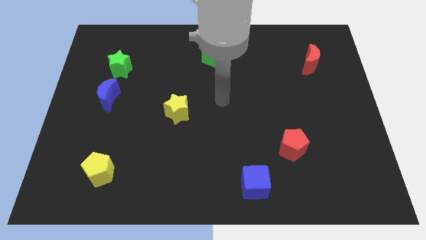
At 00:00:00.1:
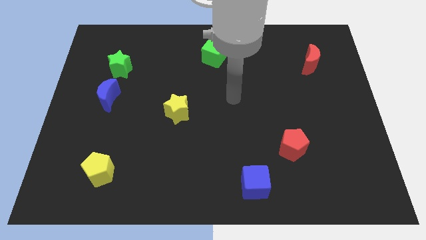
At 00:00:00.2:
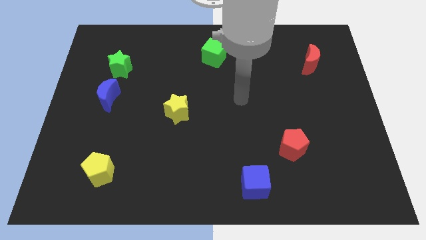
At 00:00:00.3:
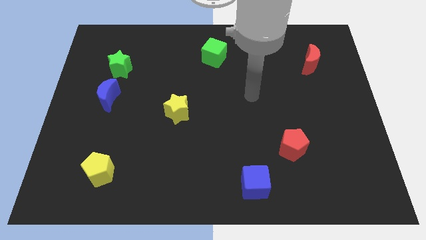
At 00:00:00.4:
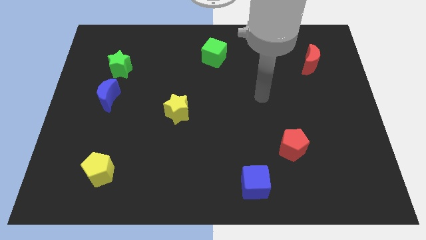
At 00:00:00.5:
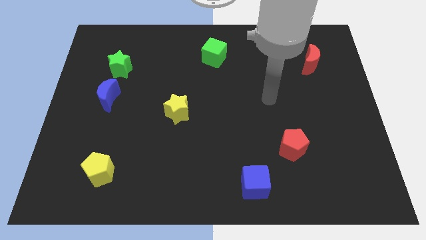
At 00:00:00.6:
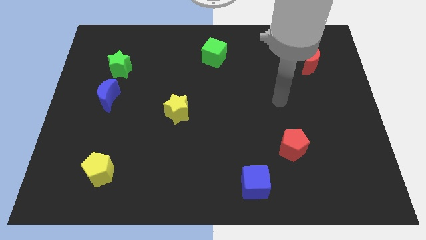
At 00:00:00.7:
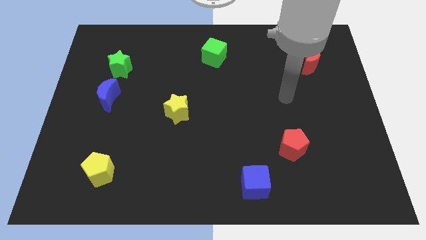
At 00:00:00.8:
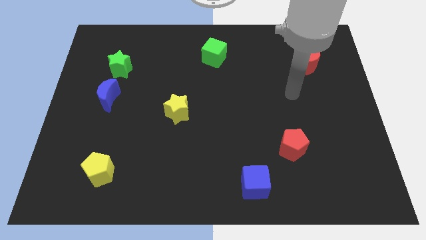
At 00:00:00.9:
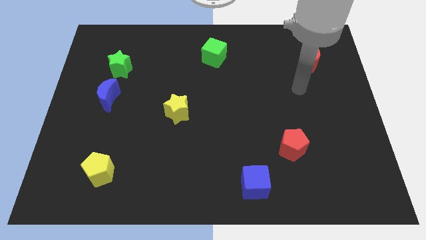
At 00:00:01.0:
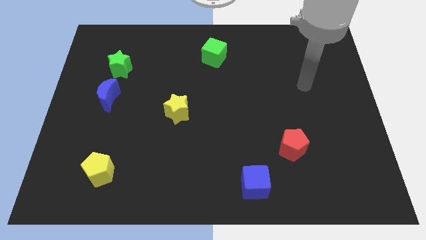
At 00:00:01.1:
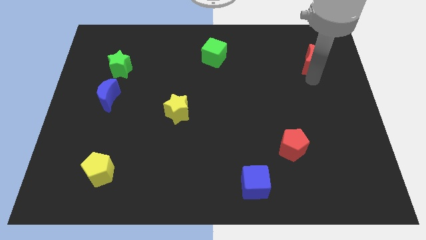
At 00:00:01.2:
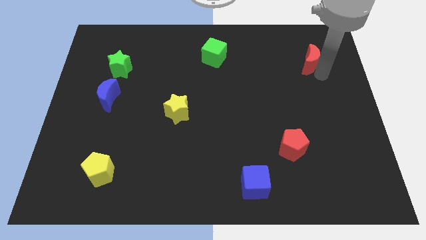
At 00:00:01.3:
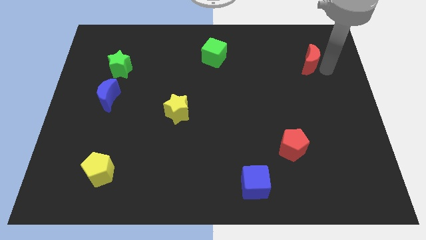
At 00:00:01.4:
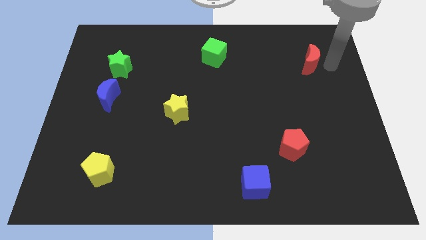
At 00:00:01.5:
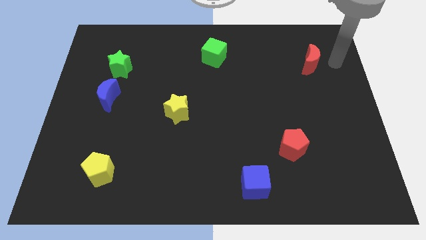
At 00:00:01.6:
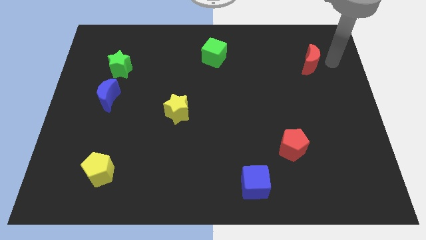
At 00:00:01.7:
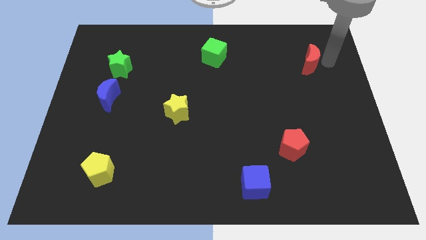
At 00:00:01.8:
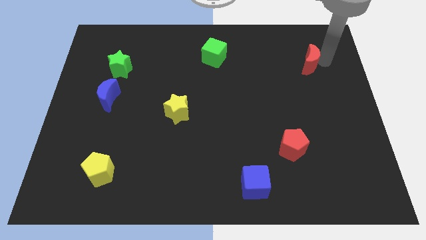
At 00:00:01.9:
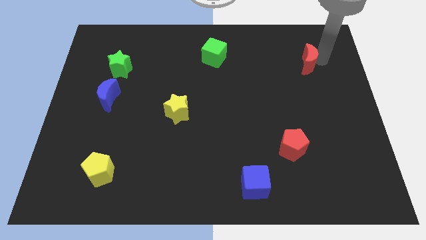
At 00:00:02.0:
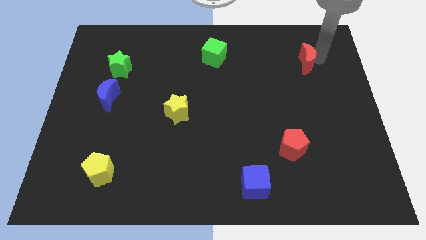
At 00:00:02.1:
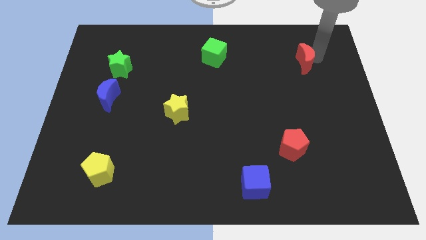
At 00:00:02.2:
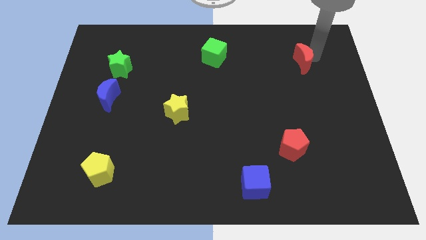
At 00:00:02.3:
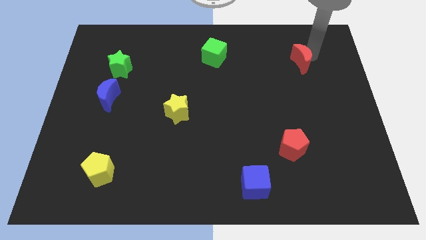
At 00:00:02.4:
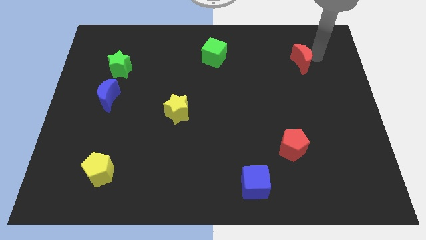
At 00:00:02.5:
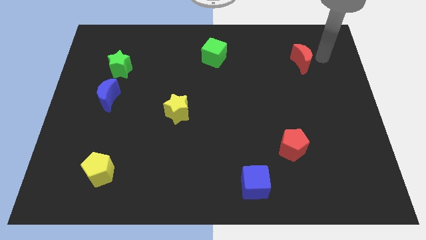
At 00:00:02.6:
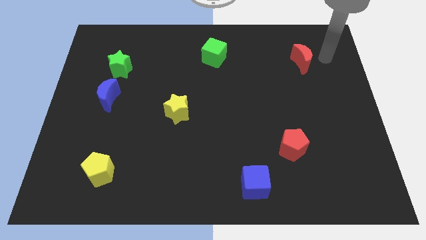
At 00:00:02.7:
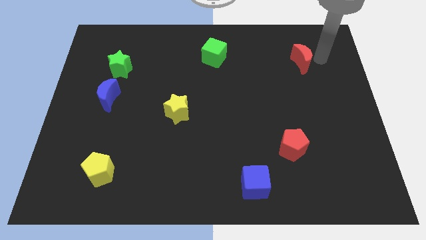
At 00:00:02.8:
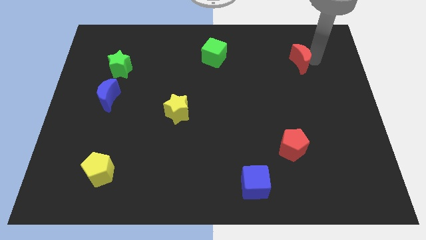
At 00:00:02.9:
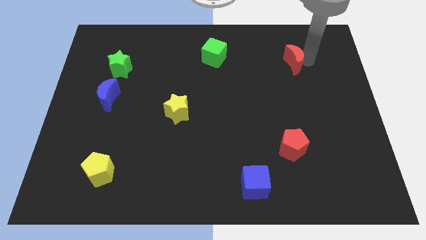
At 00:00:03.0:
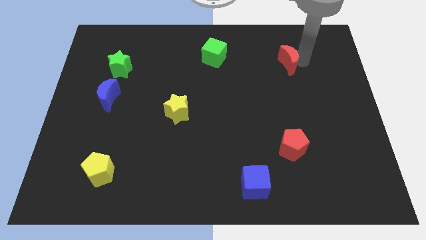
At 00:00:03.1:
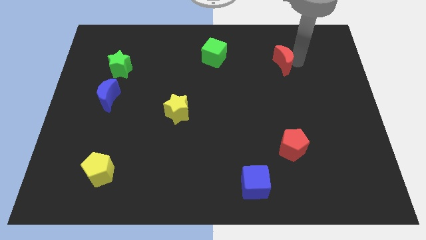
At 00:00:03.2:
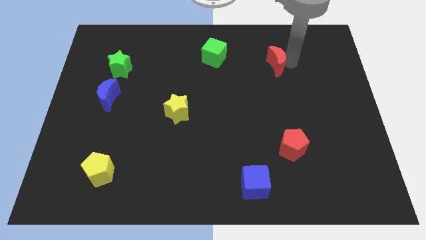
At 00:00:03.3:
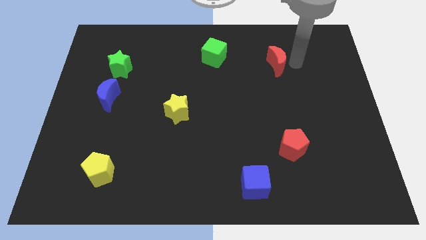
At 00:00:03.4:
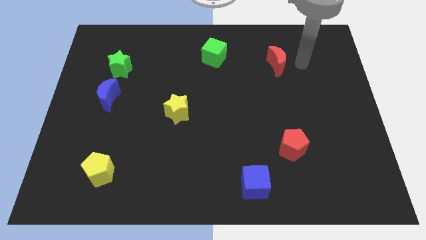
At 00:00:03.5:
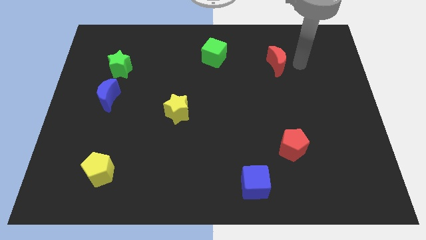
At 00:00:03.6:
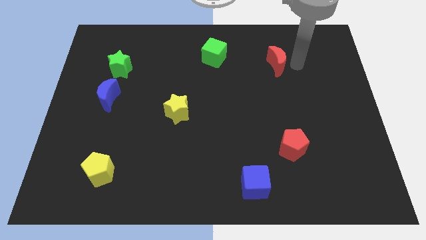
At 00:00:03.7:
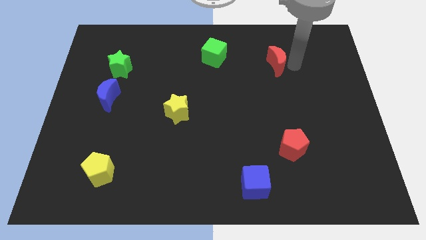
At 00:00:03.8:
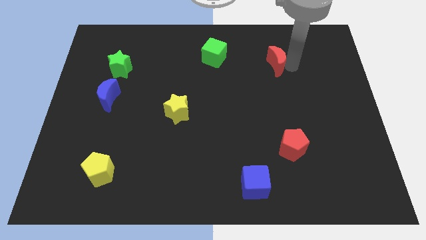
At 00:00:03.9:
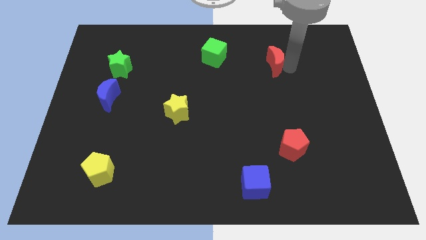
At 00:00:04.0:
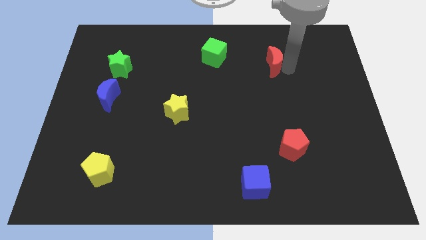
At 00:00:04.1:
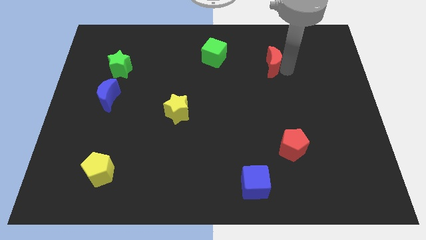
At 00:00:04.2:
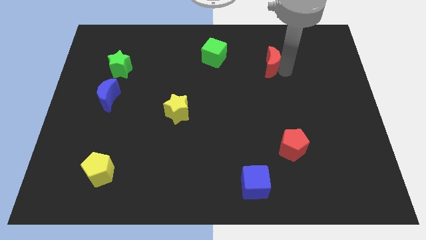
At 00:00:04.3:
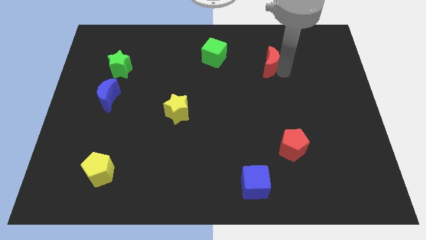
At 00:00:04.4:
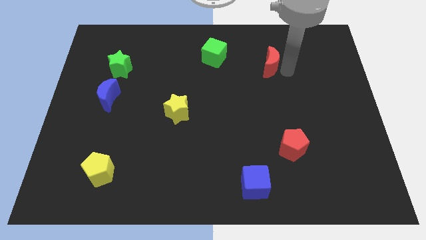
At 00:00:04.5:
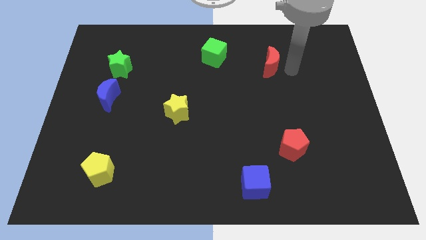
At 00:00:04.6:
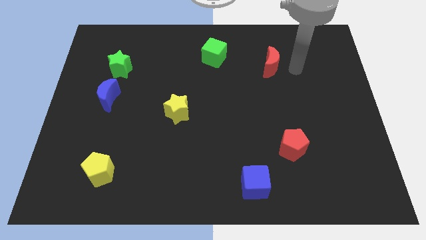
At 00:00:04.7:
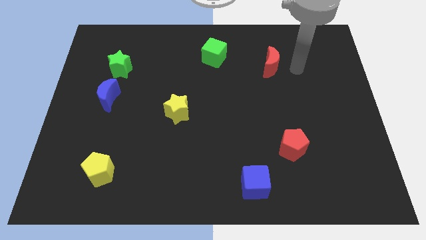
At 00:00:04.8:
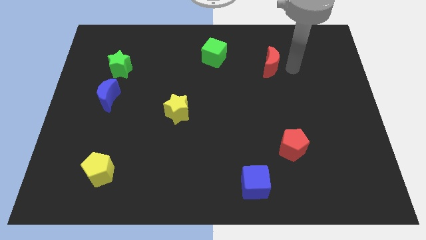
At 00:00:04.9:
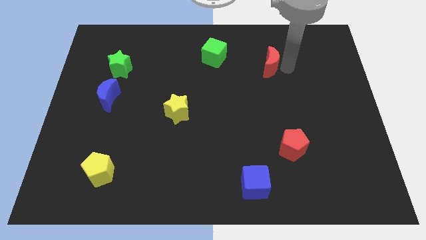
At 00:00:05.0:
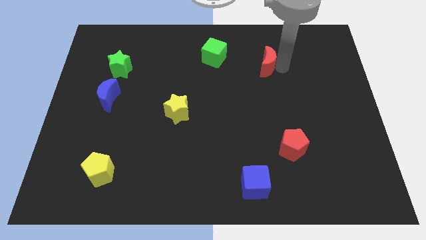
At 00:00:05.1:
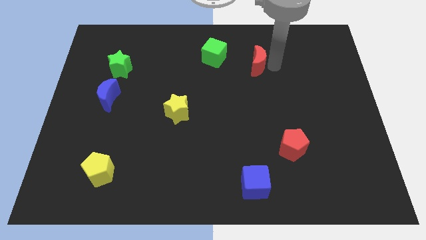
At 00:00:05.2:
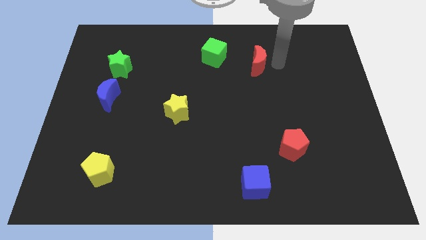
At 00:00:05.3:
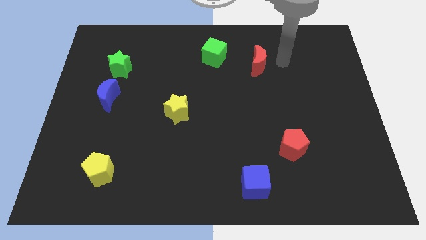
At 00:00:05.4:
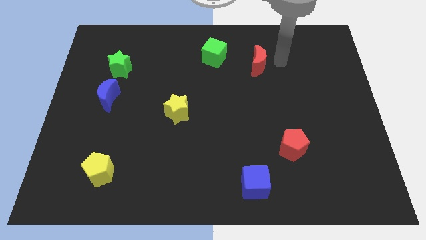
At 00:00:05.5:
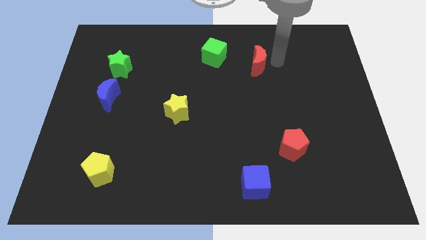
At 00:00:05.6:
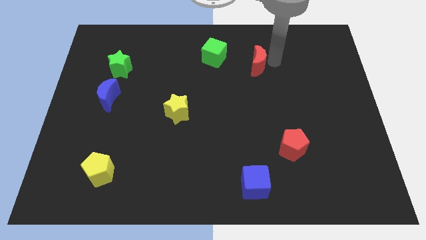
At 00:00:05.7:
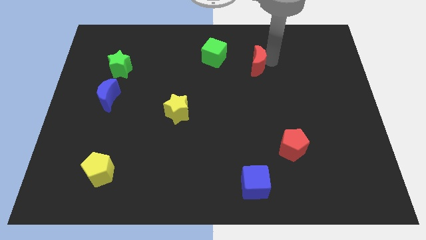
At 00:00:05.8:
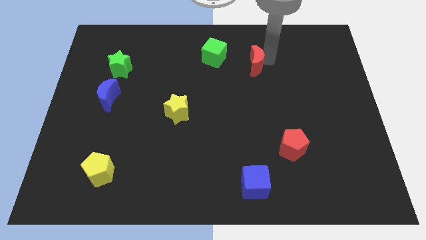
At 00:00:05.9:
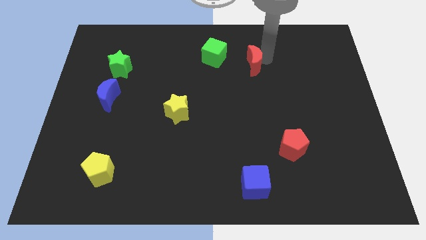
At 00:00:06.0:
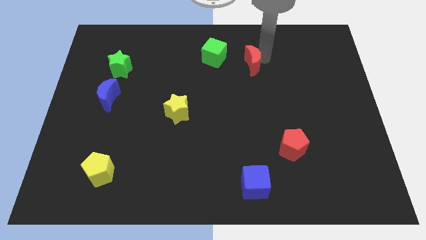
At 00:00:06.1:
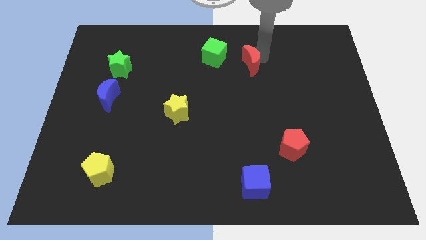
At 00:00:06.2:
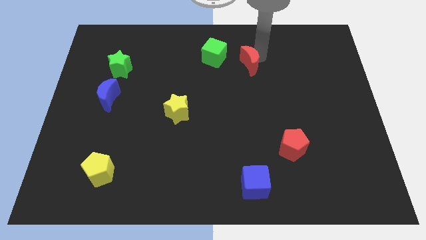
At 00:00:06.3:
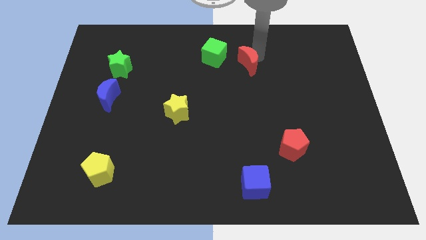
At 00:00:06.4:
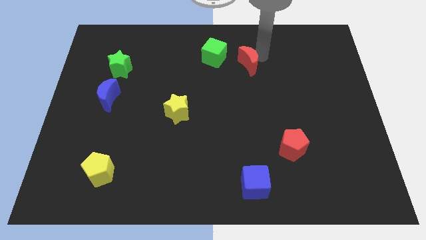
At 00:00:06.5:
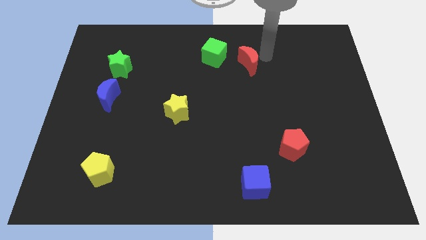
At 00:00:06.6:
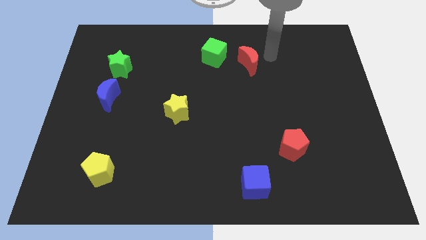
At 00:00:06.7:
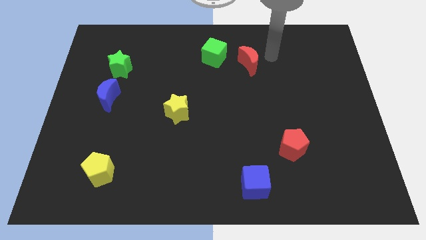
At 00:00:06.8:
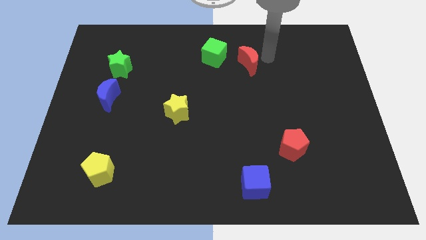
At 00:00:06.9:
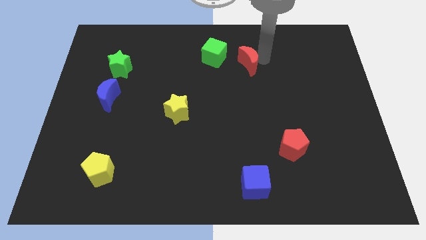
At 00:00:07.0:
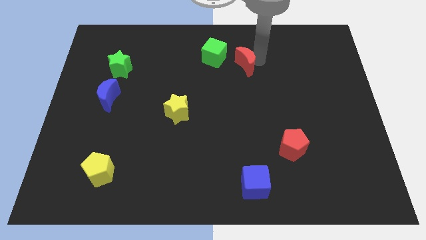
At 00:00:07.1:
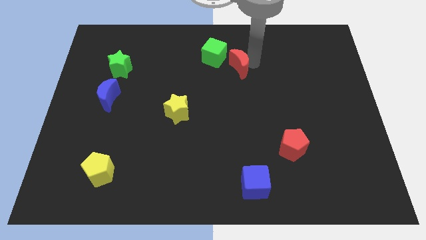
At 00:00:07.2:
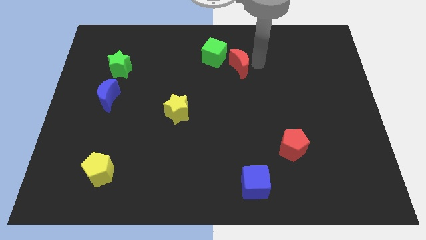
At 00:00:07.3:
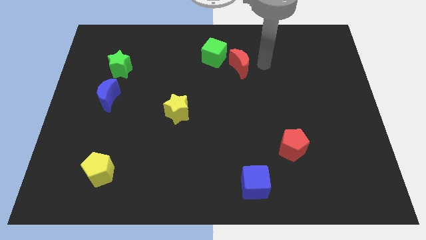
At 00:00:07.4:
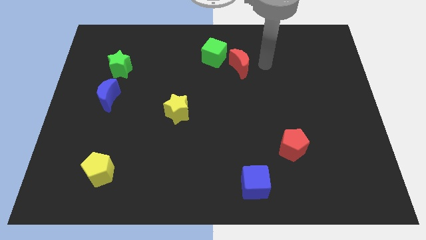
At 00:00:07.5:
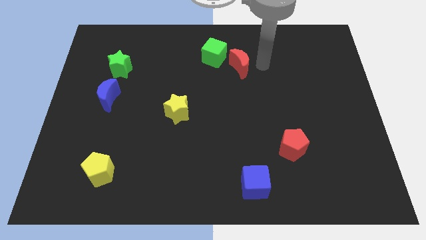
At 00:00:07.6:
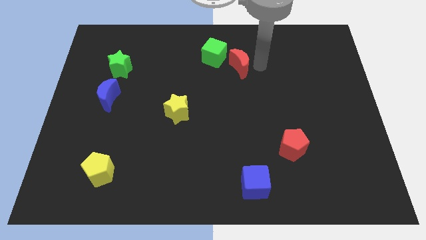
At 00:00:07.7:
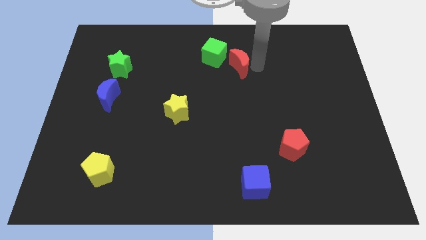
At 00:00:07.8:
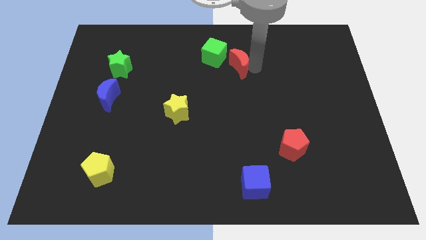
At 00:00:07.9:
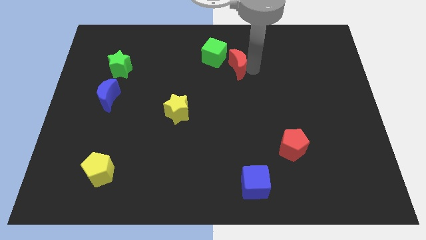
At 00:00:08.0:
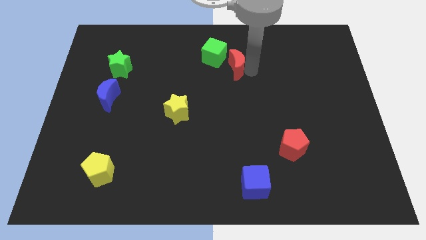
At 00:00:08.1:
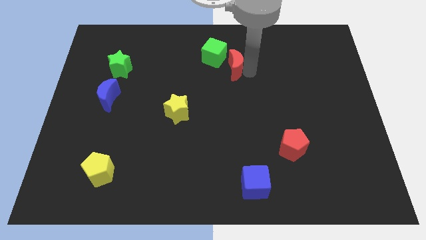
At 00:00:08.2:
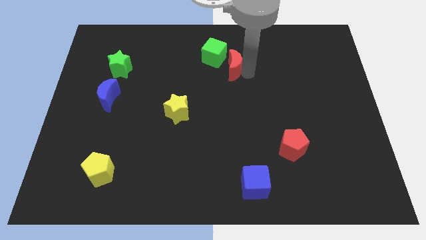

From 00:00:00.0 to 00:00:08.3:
move the red moon left
